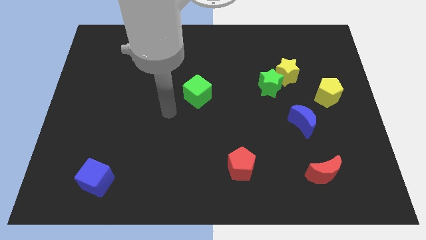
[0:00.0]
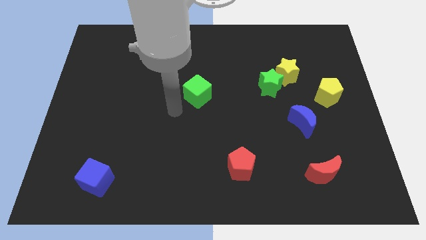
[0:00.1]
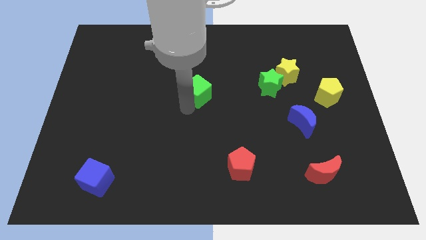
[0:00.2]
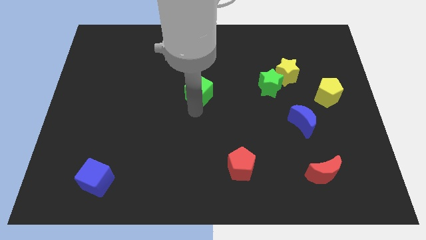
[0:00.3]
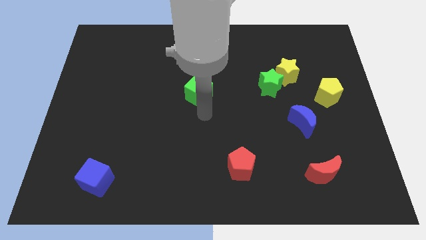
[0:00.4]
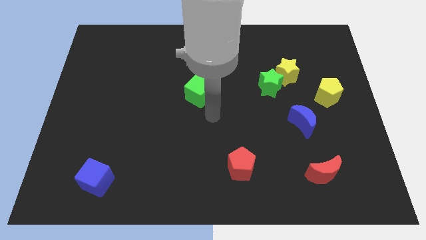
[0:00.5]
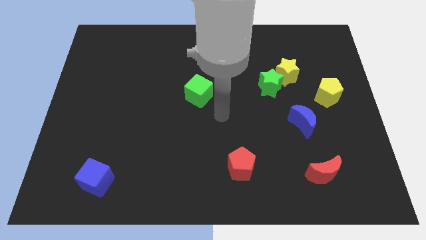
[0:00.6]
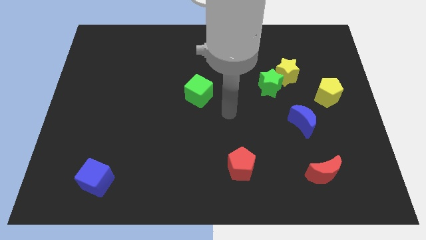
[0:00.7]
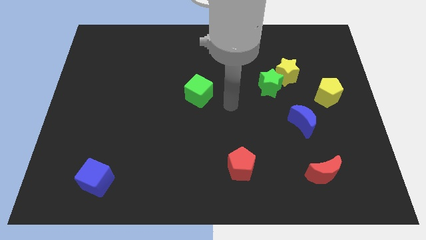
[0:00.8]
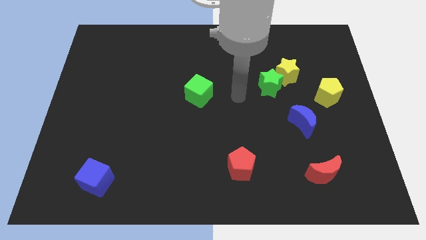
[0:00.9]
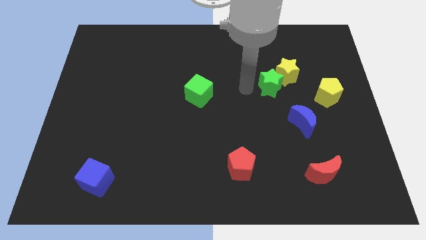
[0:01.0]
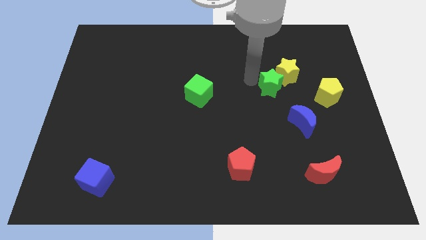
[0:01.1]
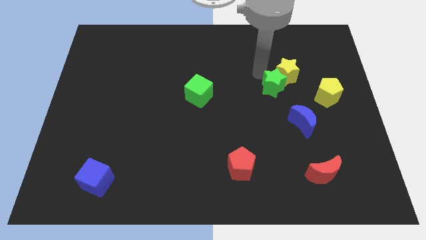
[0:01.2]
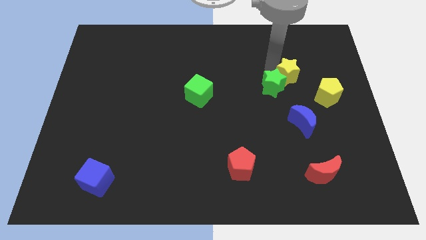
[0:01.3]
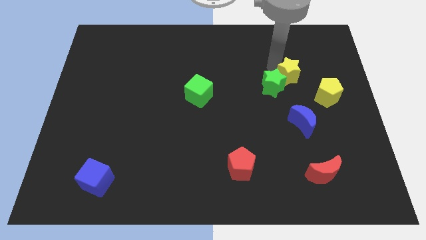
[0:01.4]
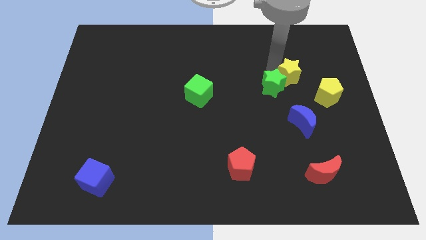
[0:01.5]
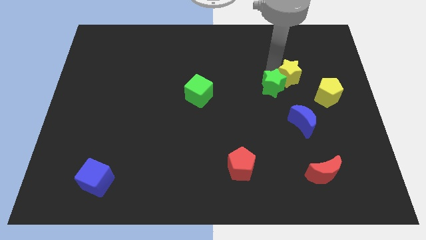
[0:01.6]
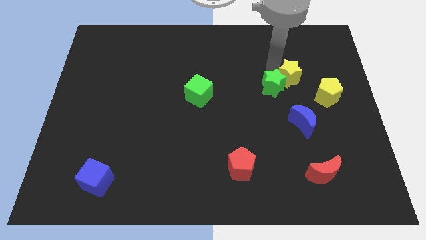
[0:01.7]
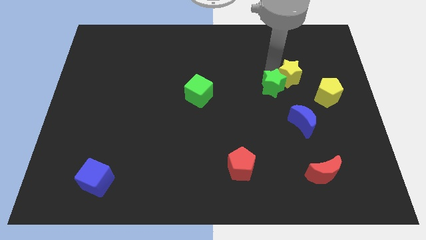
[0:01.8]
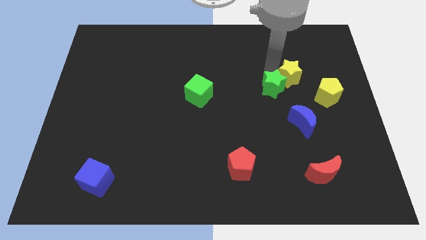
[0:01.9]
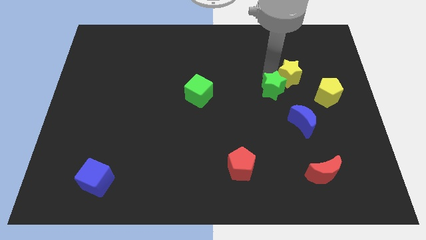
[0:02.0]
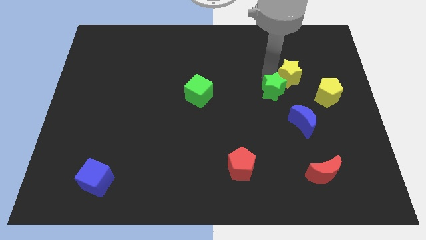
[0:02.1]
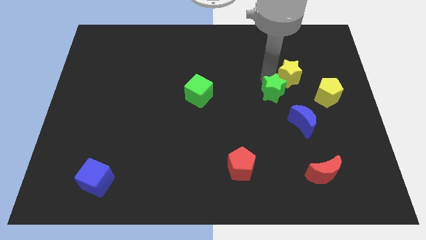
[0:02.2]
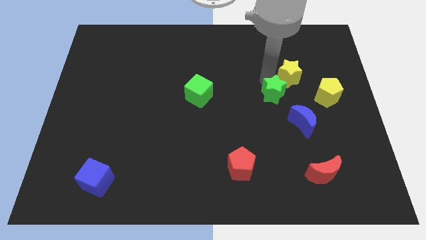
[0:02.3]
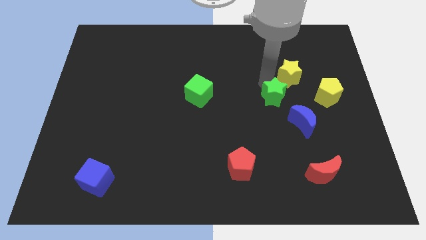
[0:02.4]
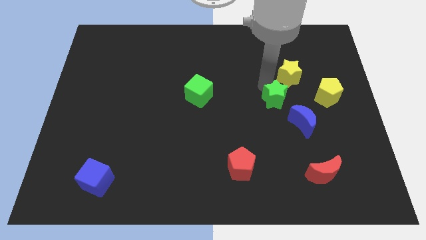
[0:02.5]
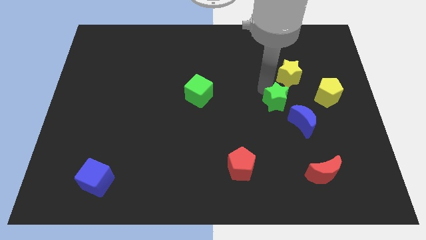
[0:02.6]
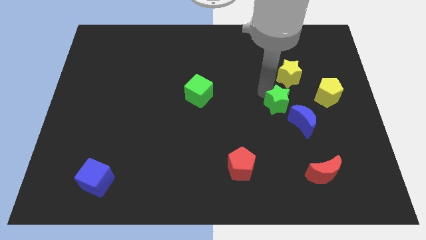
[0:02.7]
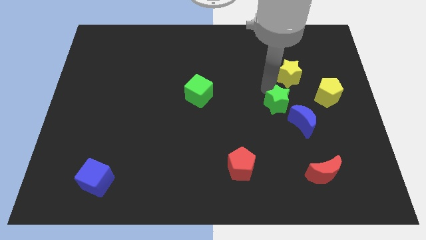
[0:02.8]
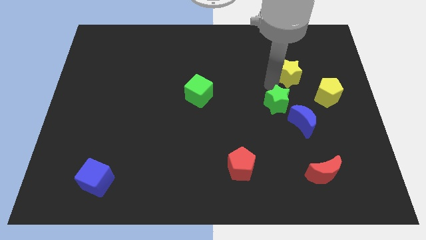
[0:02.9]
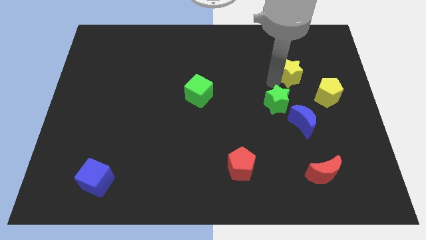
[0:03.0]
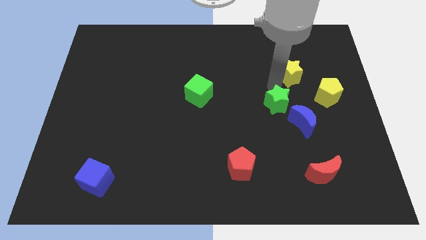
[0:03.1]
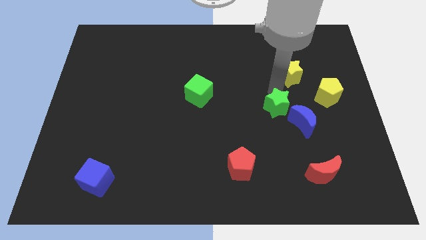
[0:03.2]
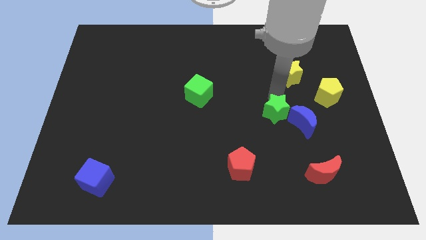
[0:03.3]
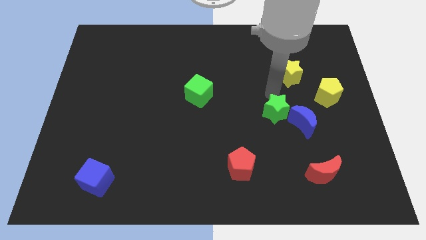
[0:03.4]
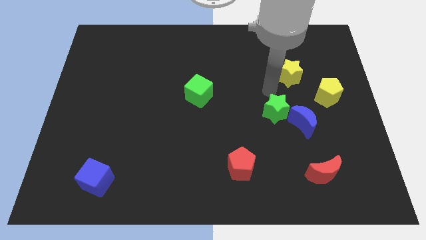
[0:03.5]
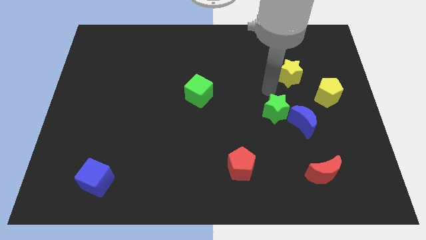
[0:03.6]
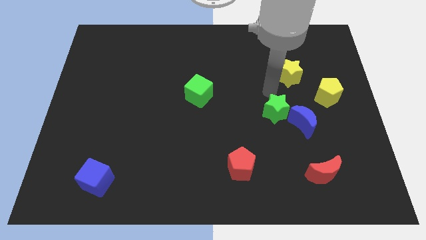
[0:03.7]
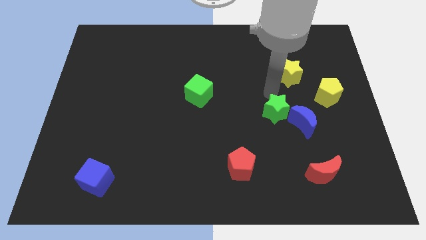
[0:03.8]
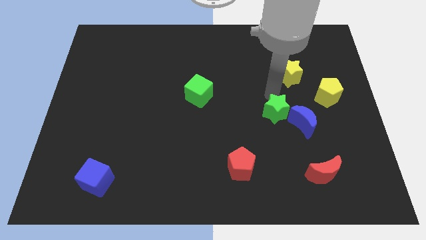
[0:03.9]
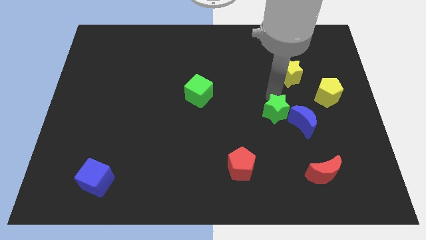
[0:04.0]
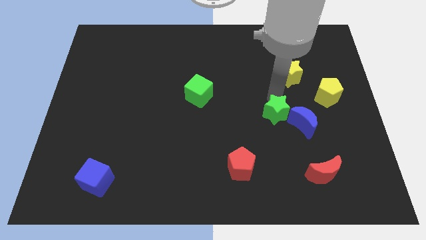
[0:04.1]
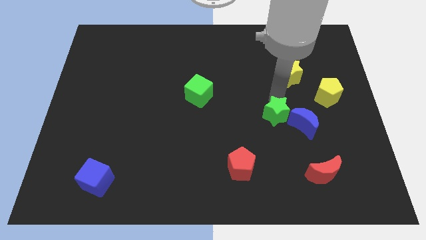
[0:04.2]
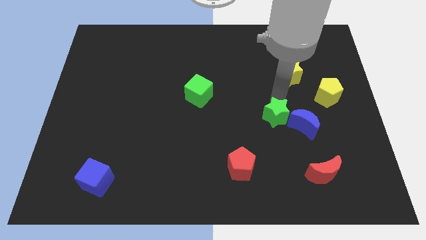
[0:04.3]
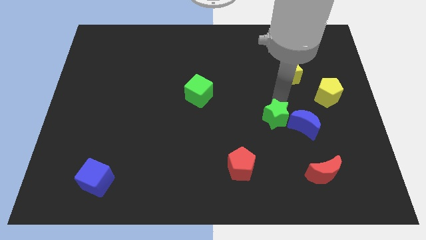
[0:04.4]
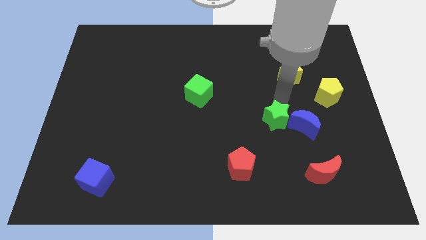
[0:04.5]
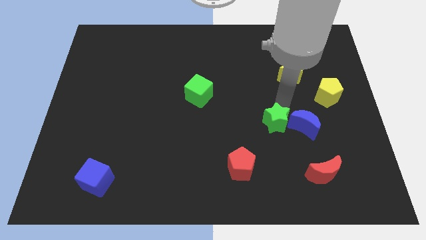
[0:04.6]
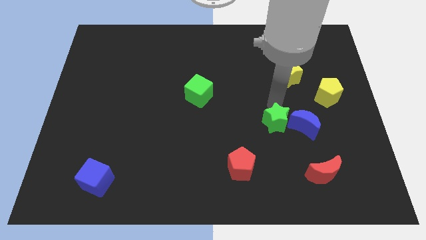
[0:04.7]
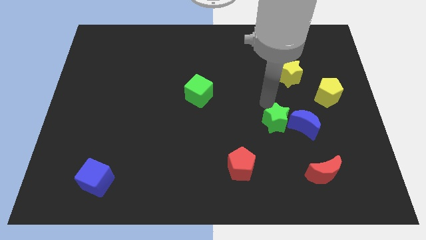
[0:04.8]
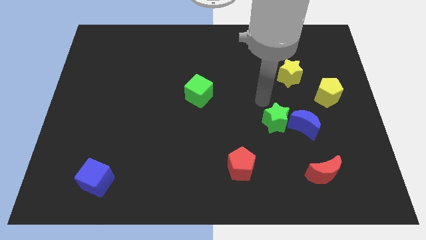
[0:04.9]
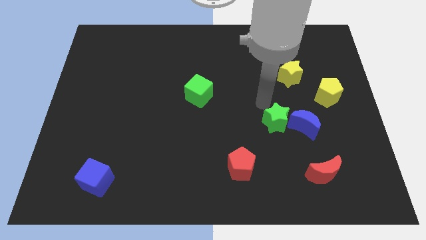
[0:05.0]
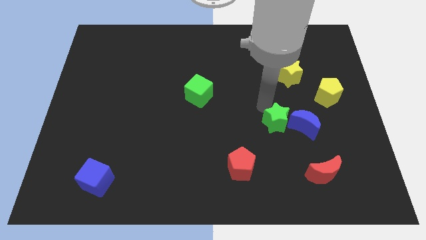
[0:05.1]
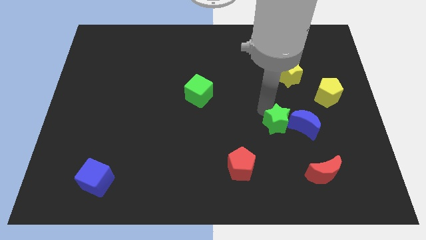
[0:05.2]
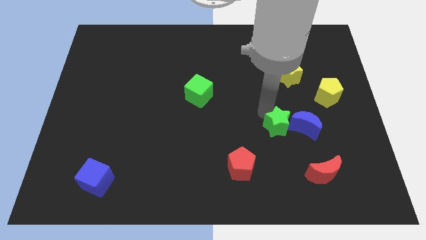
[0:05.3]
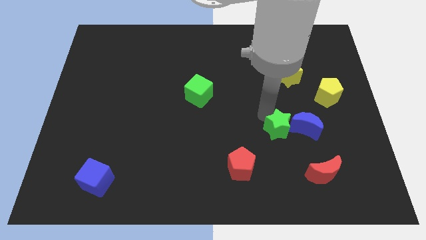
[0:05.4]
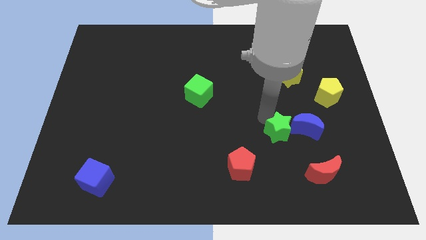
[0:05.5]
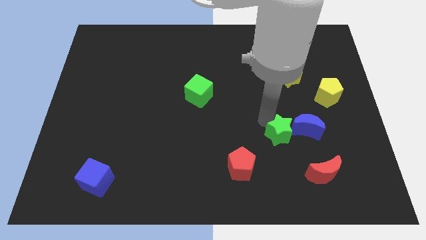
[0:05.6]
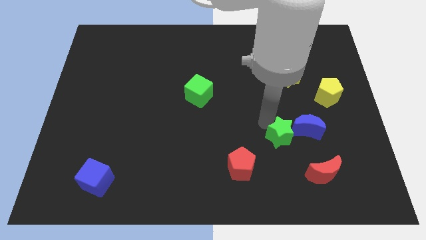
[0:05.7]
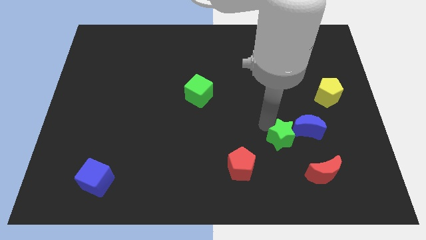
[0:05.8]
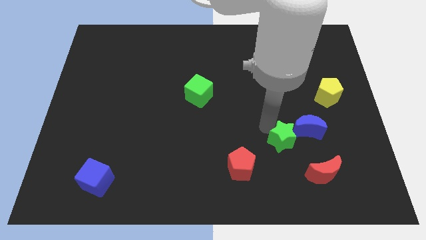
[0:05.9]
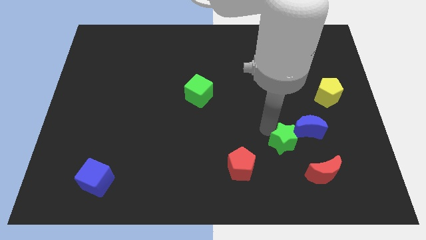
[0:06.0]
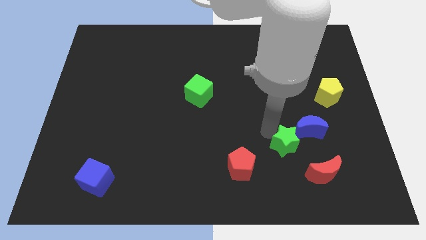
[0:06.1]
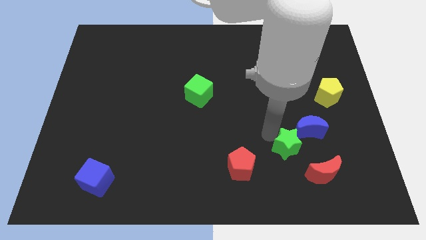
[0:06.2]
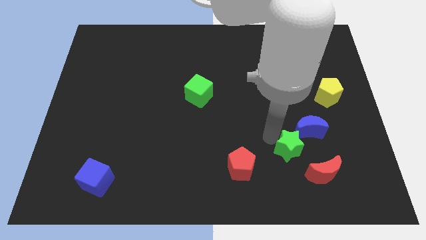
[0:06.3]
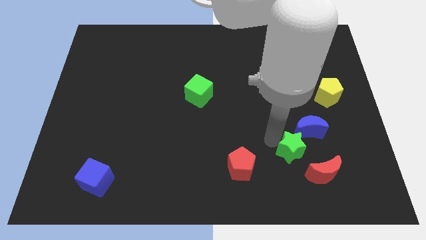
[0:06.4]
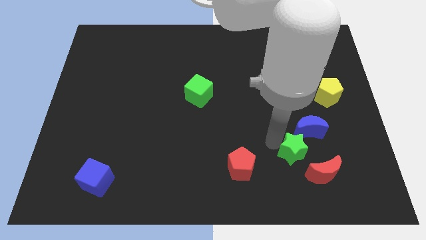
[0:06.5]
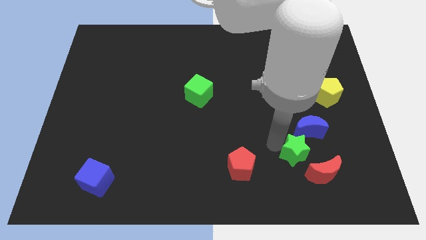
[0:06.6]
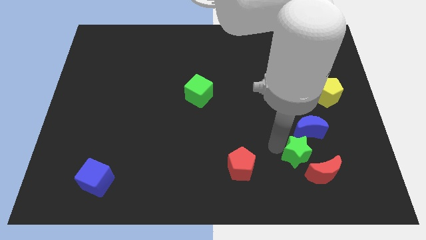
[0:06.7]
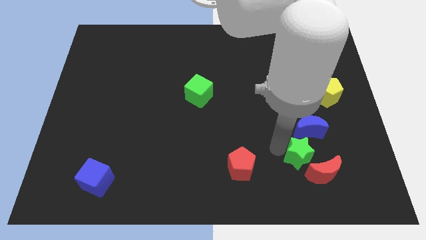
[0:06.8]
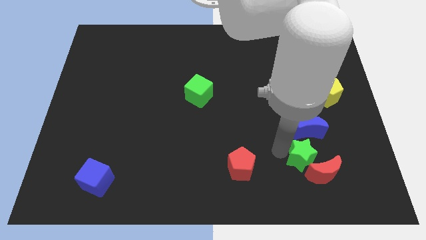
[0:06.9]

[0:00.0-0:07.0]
move the green star close to the red moon
